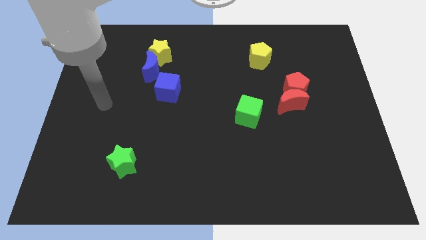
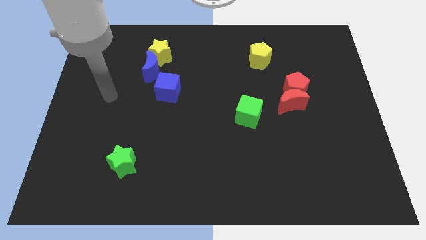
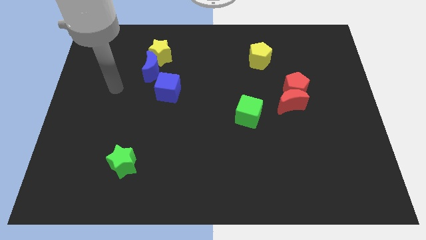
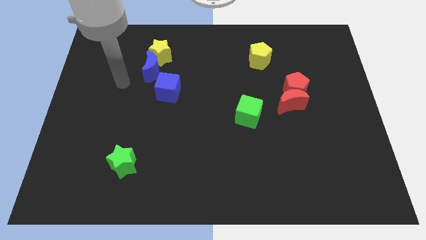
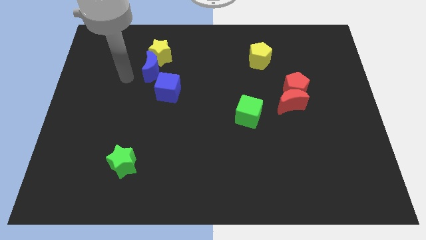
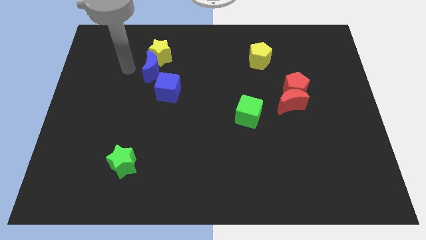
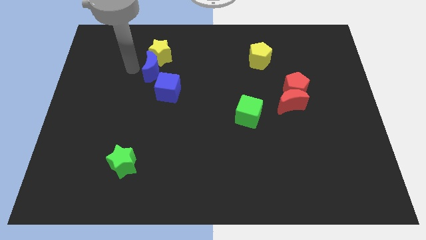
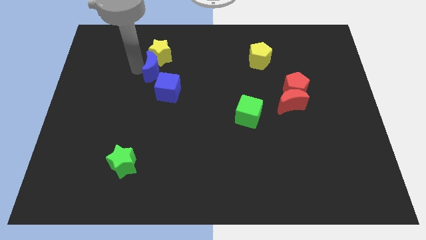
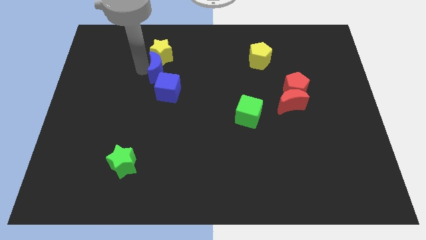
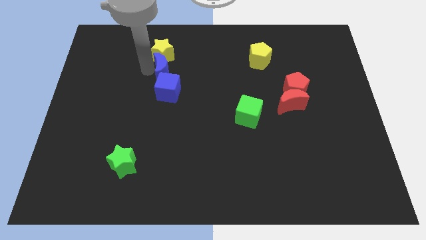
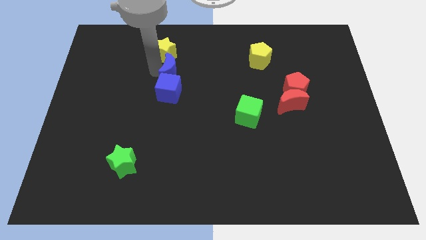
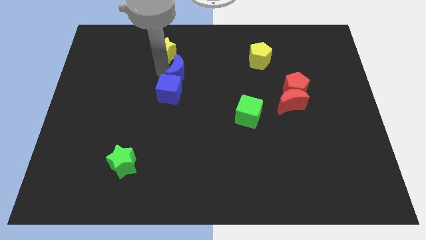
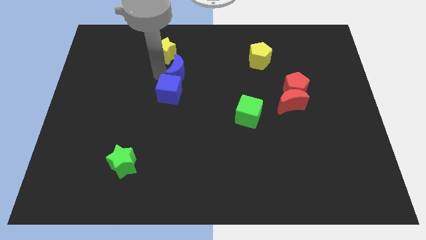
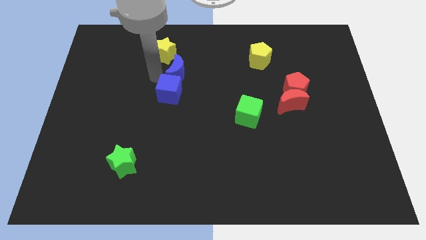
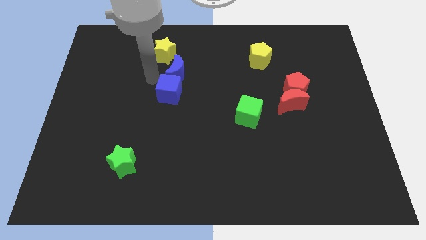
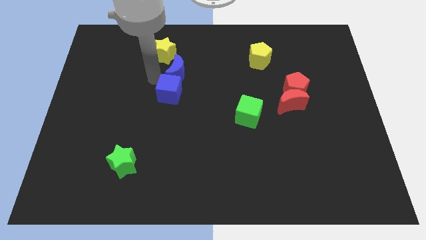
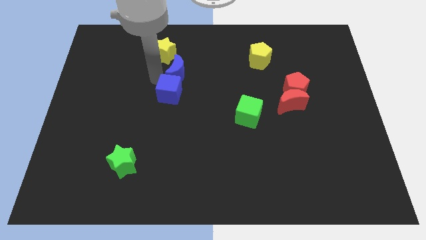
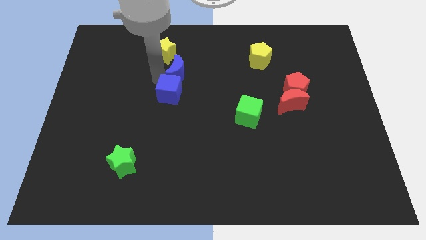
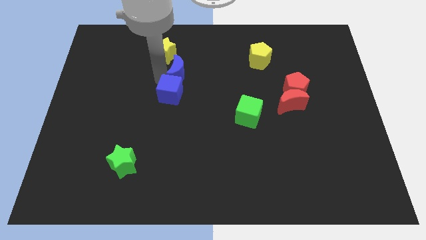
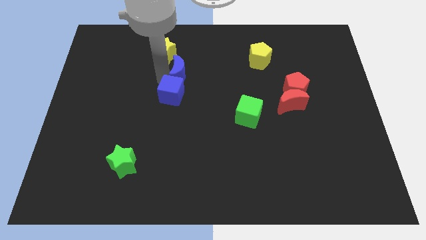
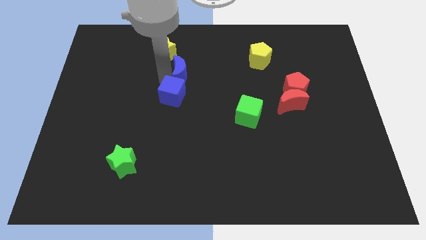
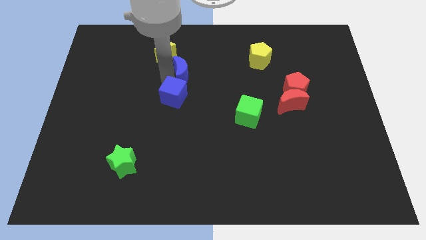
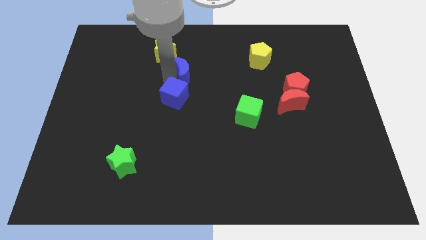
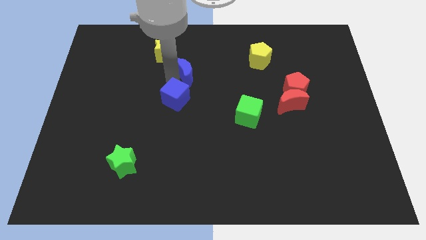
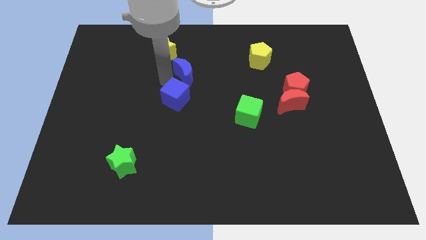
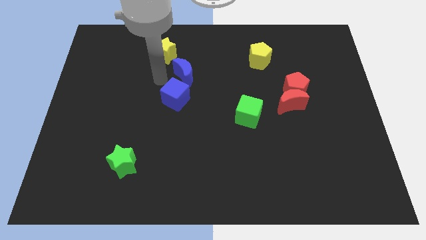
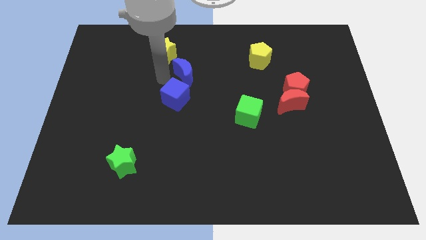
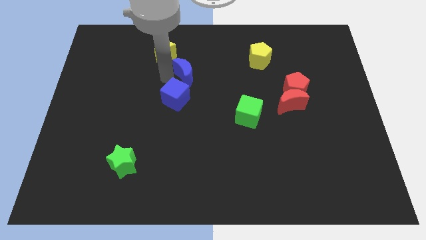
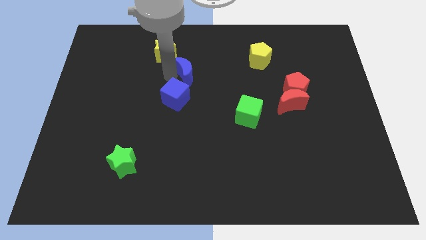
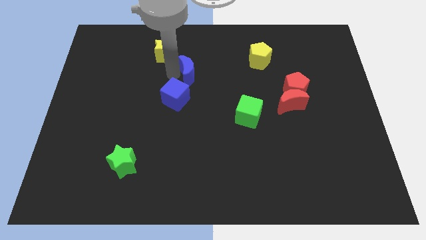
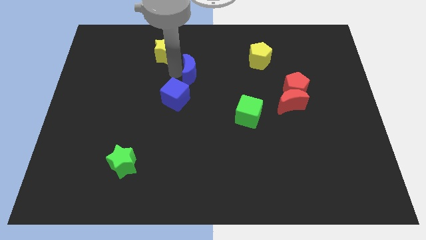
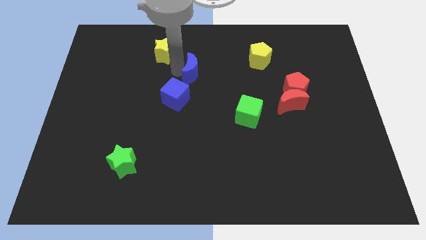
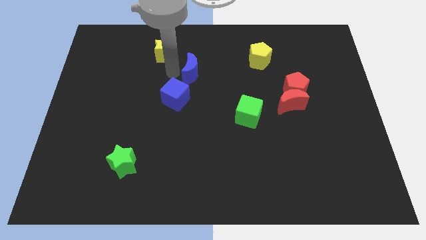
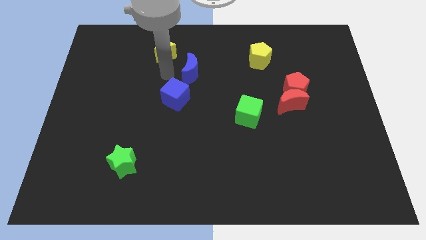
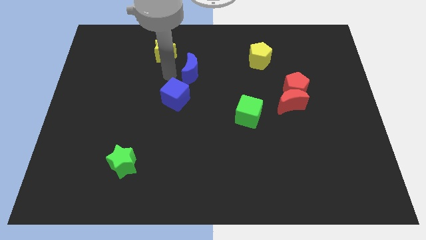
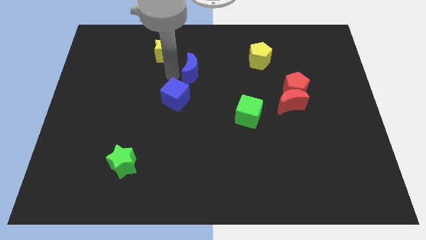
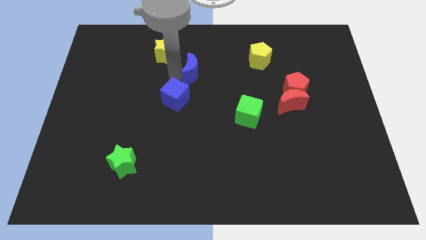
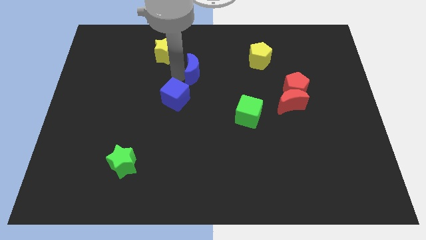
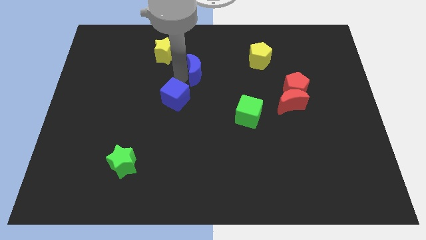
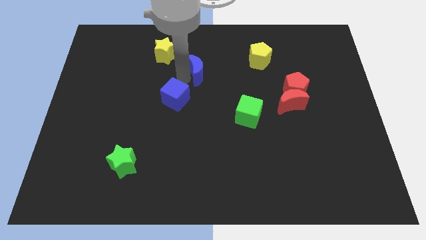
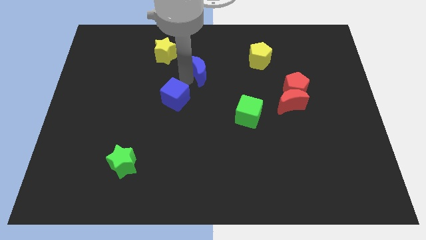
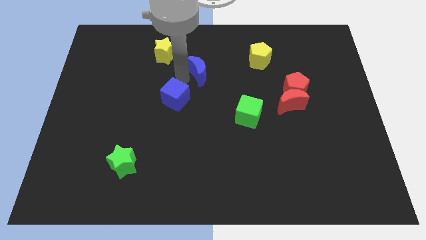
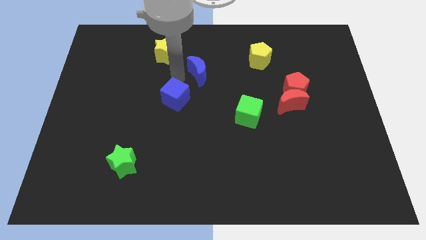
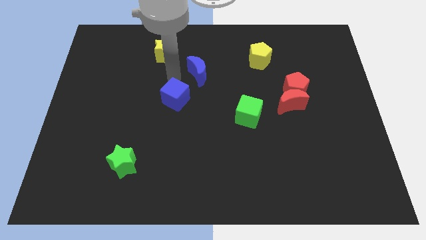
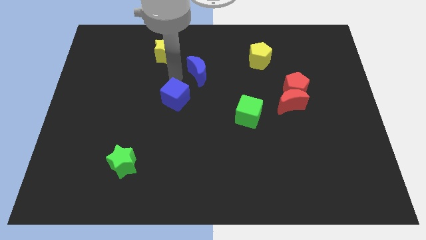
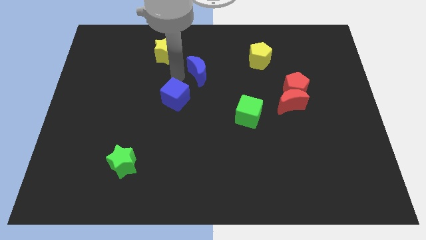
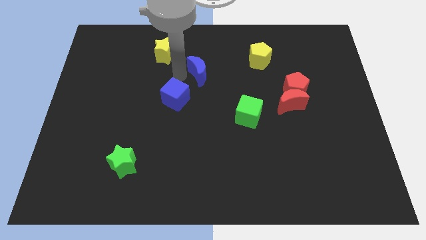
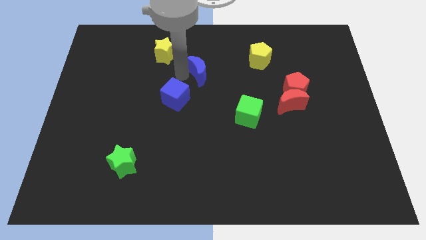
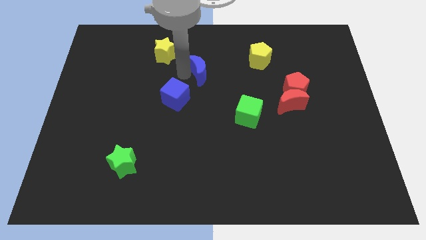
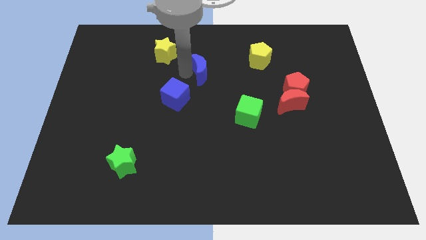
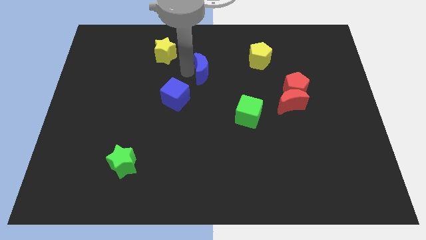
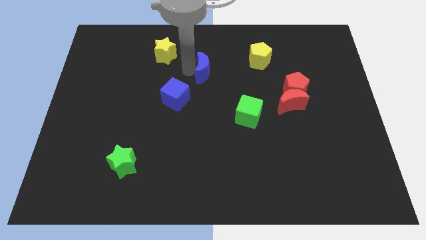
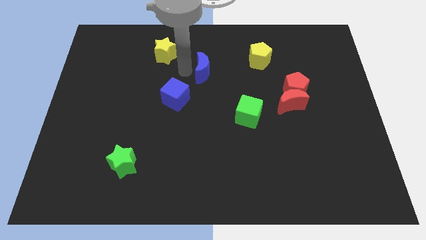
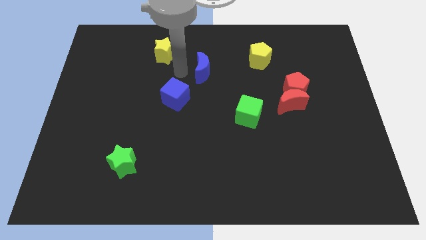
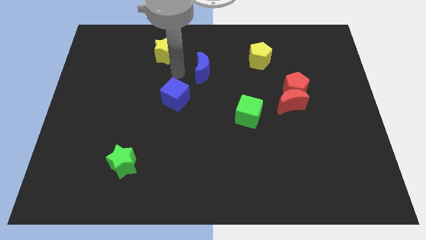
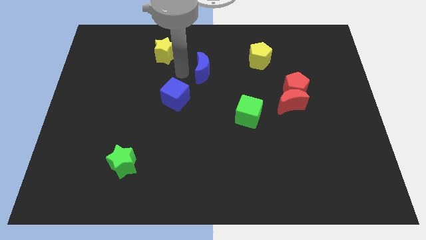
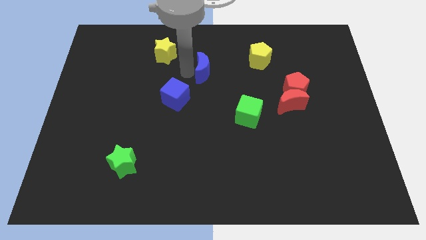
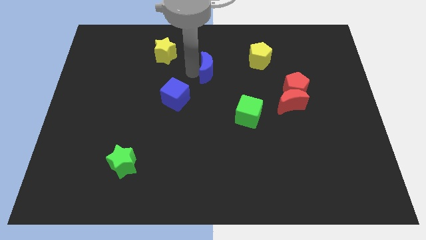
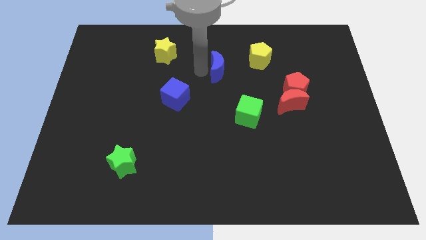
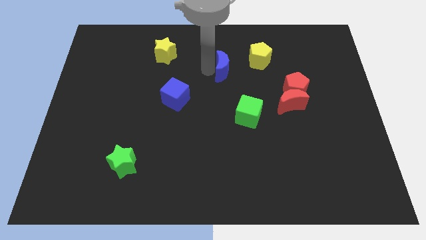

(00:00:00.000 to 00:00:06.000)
slide the blue moon to the bottom left side of the yellow pentagon

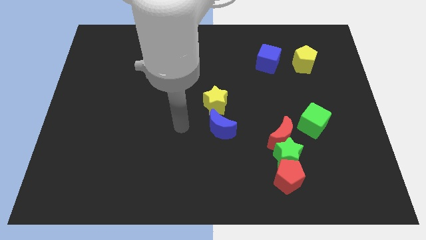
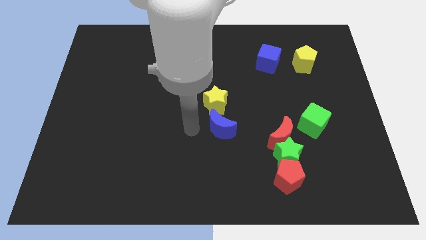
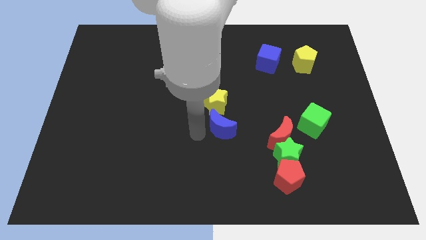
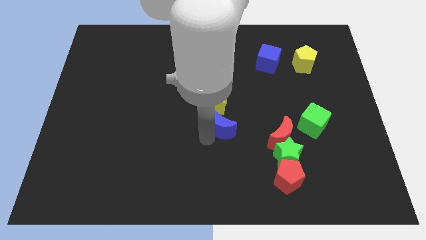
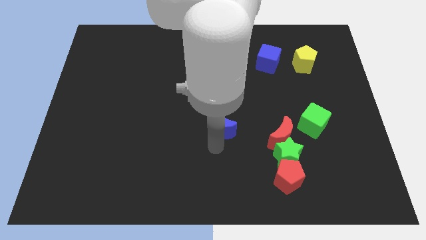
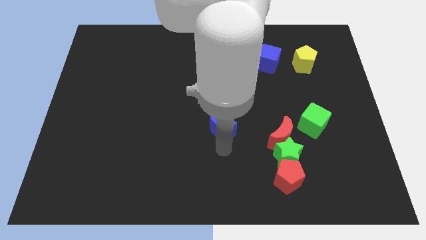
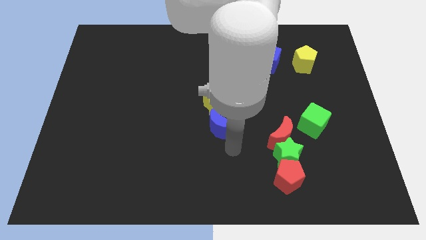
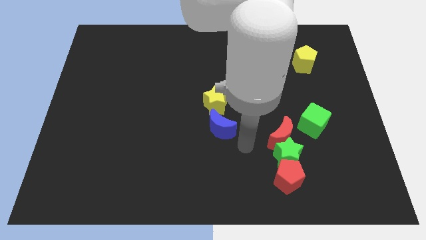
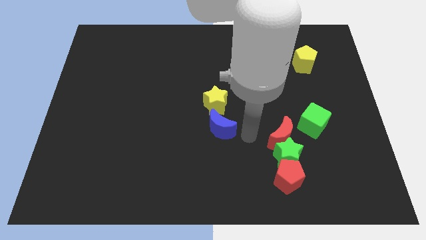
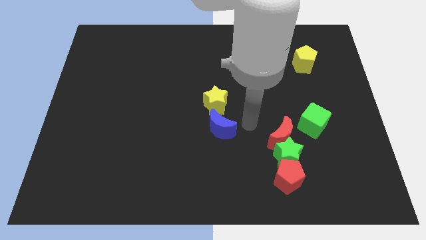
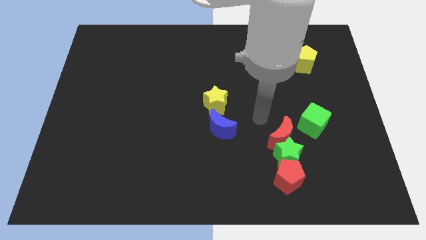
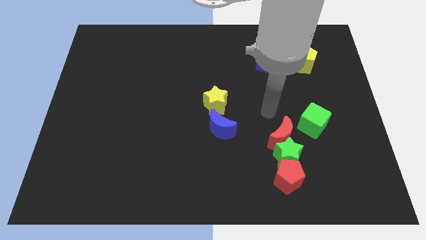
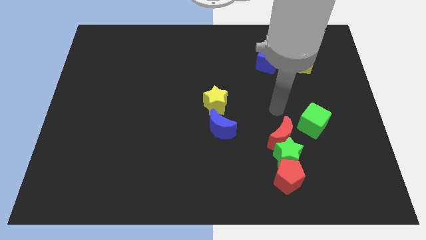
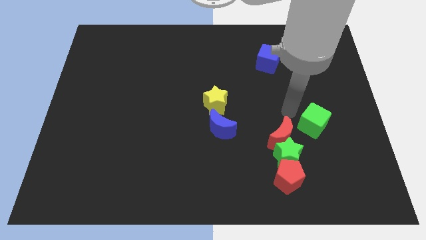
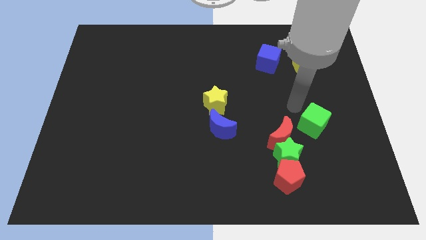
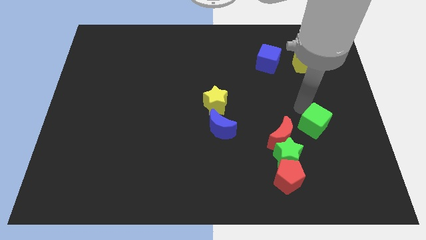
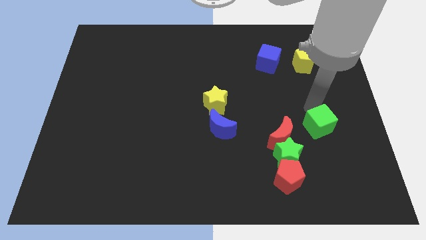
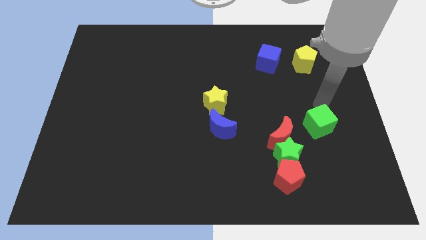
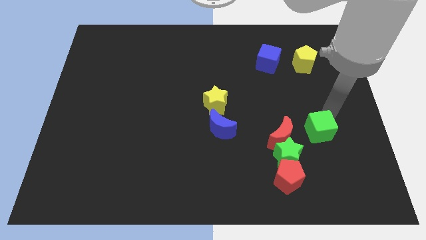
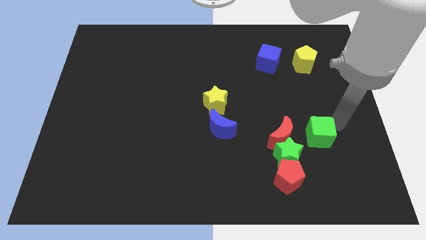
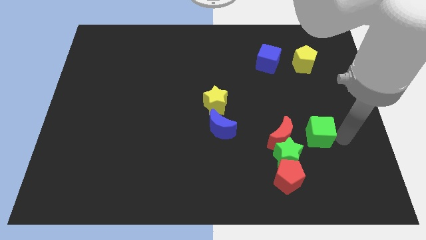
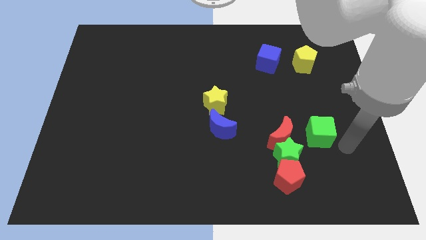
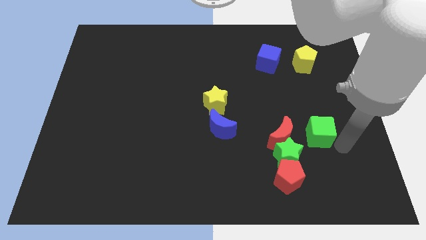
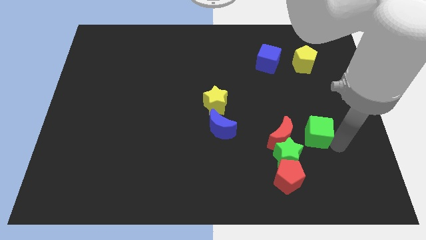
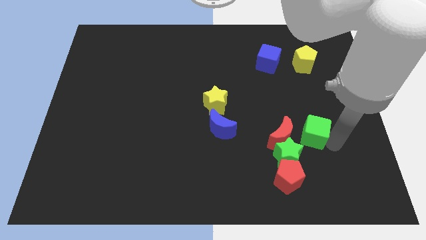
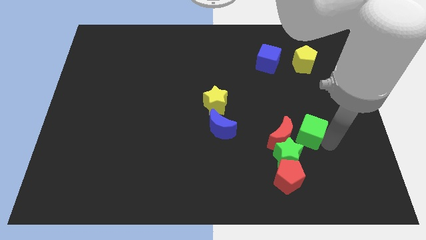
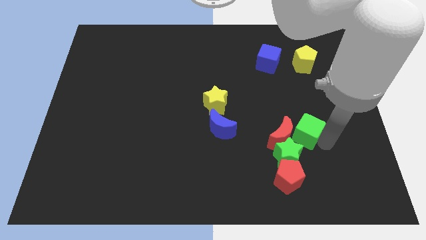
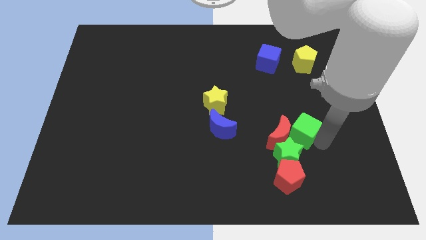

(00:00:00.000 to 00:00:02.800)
slide the green cube to the top side of the green star
